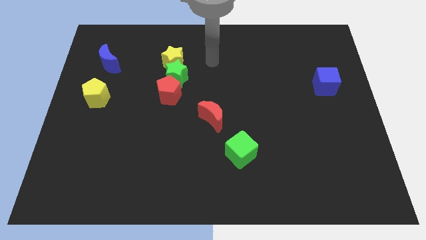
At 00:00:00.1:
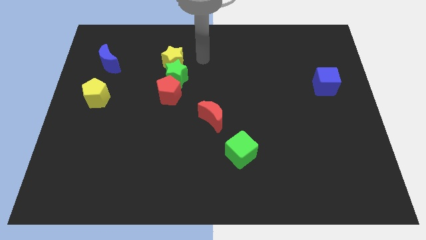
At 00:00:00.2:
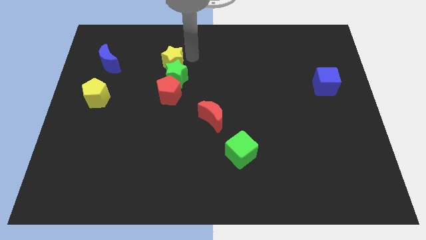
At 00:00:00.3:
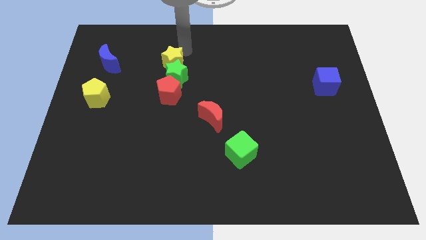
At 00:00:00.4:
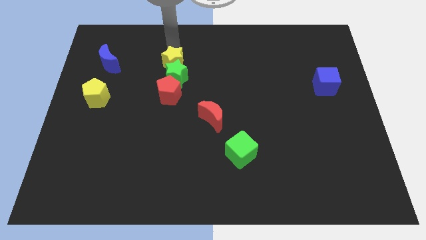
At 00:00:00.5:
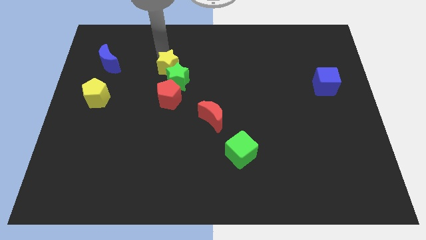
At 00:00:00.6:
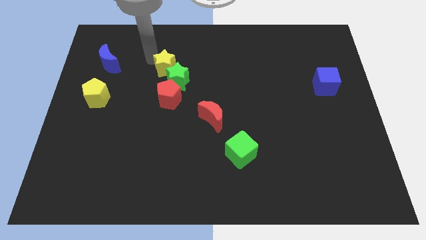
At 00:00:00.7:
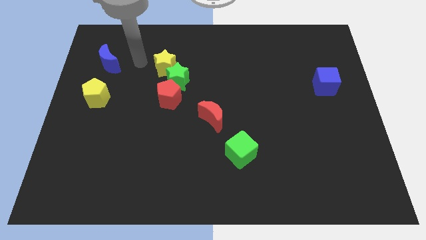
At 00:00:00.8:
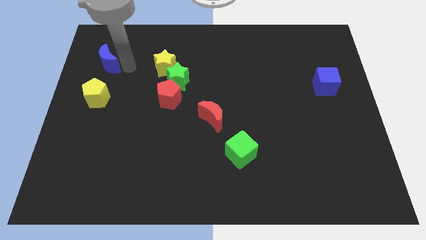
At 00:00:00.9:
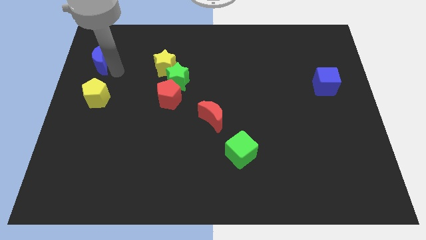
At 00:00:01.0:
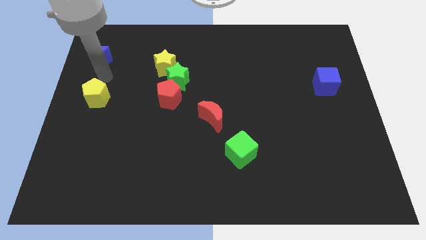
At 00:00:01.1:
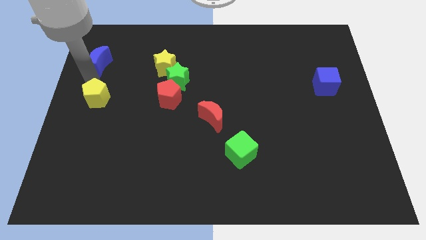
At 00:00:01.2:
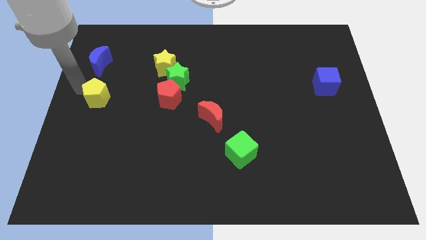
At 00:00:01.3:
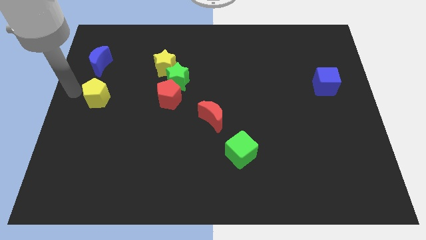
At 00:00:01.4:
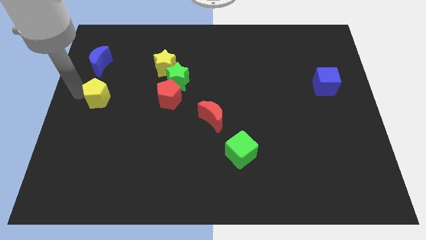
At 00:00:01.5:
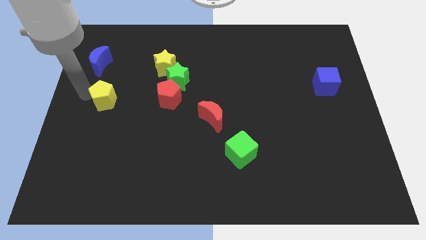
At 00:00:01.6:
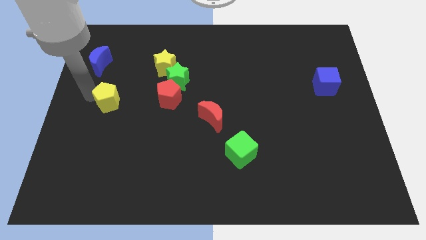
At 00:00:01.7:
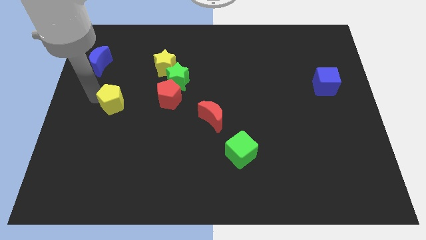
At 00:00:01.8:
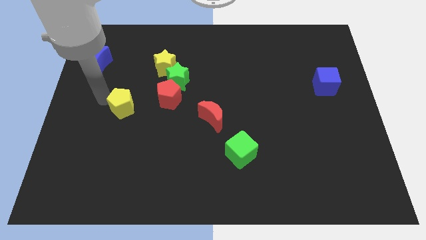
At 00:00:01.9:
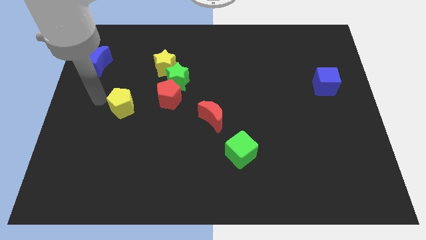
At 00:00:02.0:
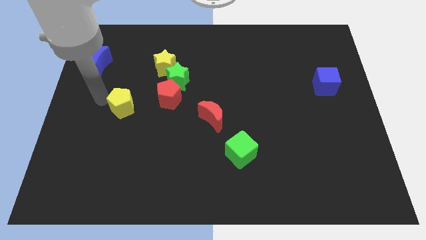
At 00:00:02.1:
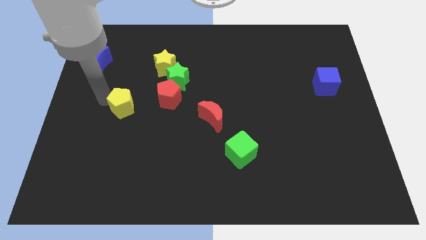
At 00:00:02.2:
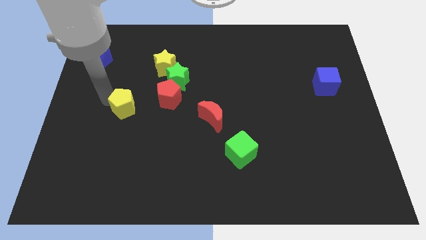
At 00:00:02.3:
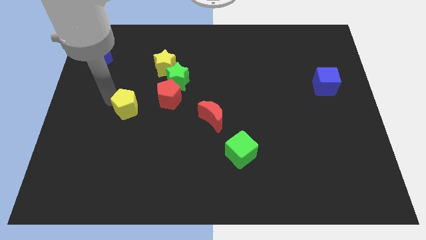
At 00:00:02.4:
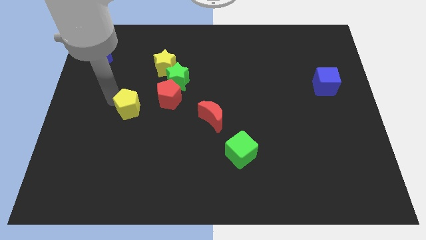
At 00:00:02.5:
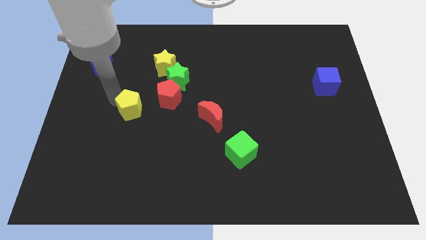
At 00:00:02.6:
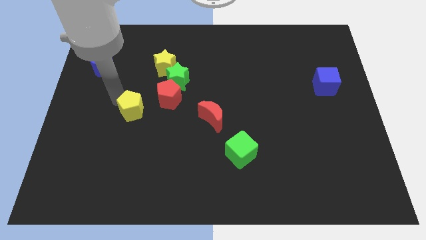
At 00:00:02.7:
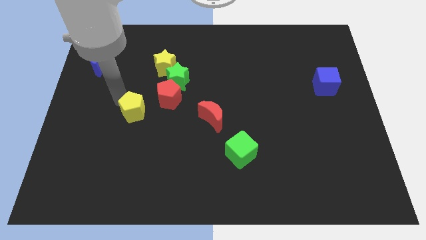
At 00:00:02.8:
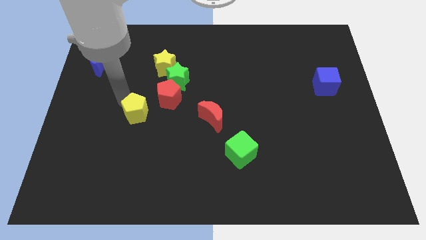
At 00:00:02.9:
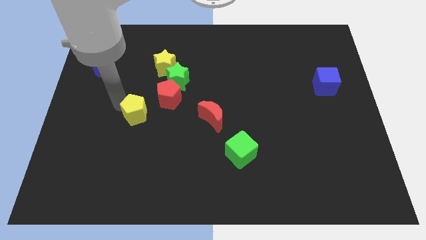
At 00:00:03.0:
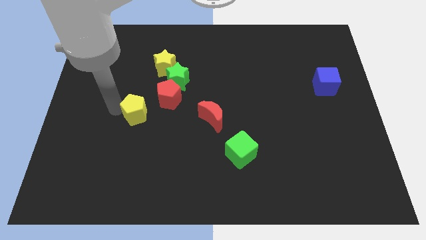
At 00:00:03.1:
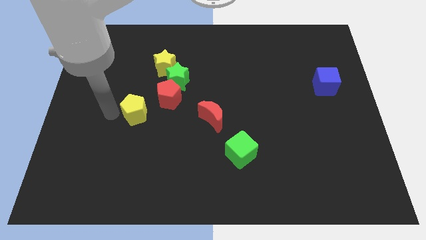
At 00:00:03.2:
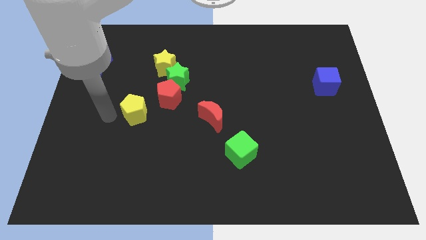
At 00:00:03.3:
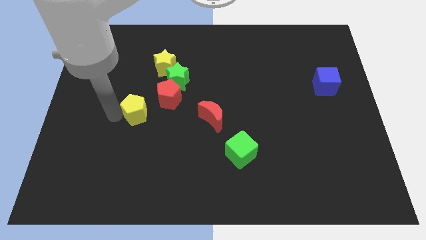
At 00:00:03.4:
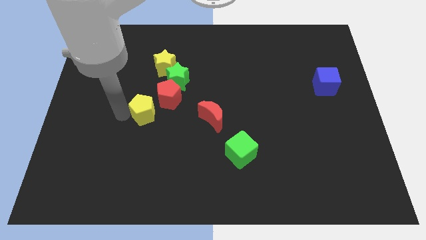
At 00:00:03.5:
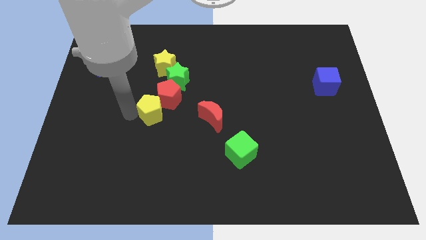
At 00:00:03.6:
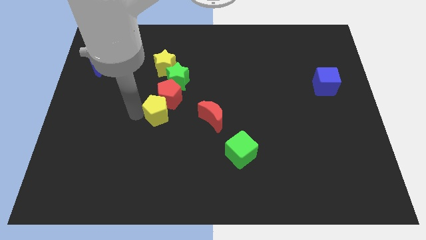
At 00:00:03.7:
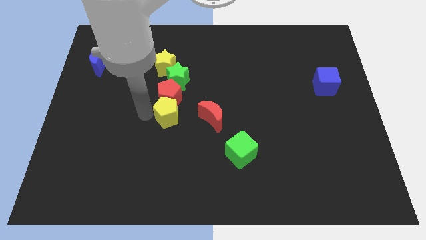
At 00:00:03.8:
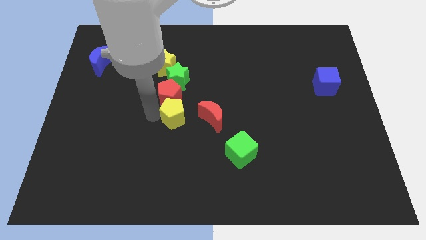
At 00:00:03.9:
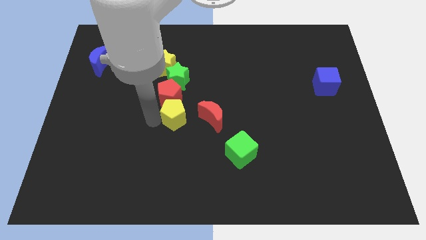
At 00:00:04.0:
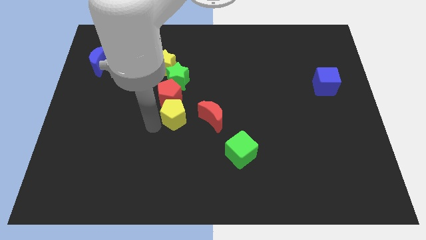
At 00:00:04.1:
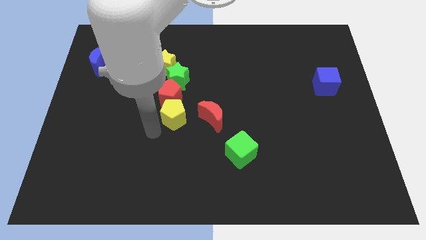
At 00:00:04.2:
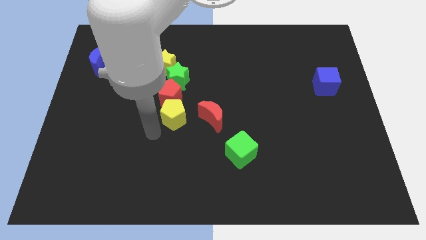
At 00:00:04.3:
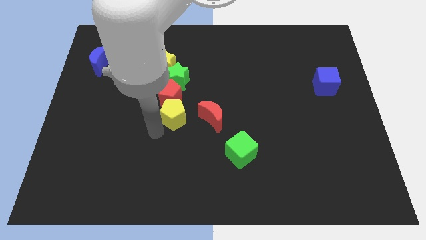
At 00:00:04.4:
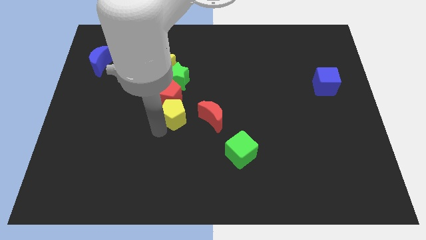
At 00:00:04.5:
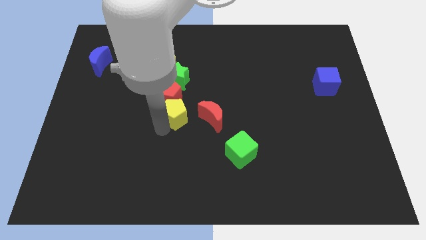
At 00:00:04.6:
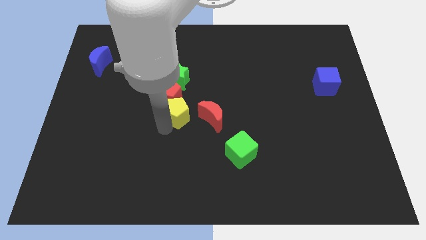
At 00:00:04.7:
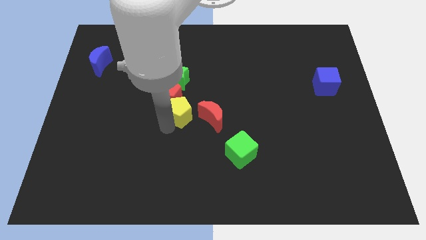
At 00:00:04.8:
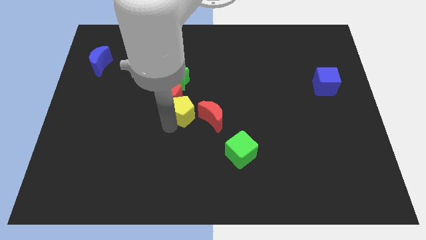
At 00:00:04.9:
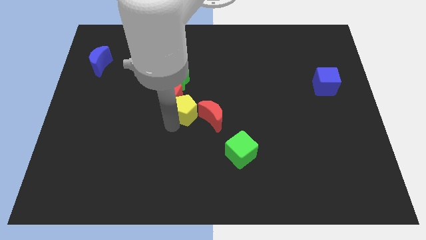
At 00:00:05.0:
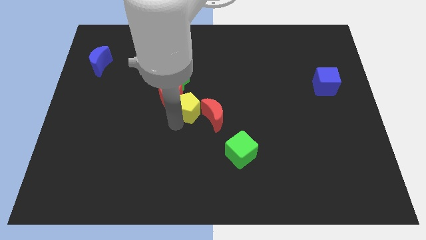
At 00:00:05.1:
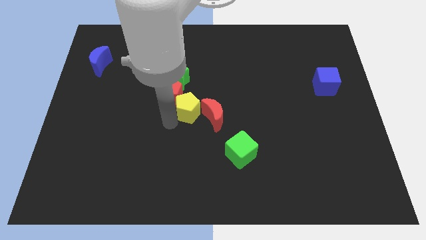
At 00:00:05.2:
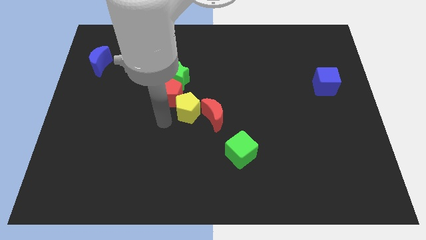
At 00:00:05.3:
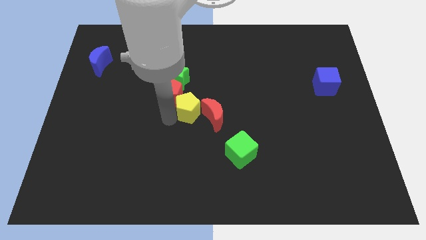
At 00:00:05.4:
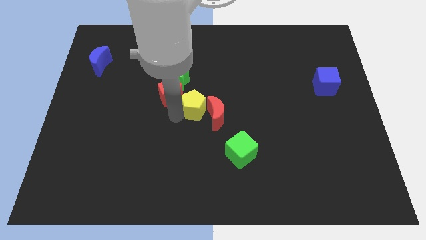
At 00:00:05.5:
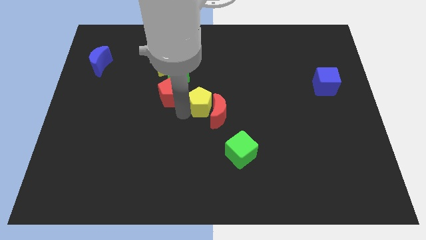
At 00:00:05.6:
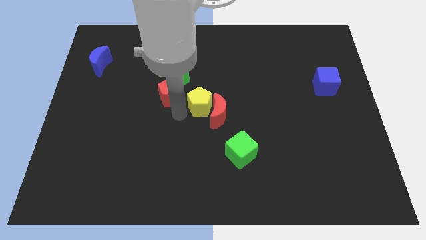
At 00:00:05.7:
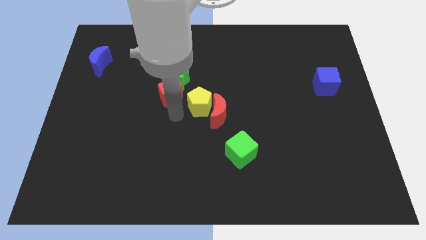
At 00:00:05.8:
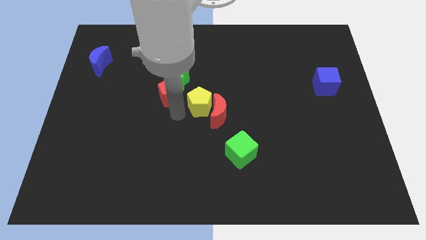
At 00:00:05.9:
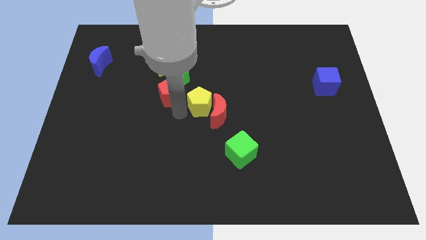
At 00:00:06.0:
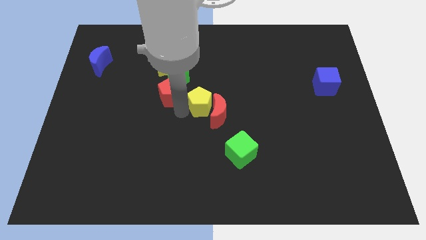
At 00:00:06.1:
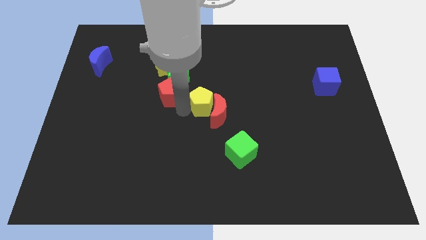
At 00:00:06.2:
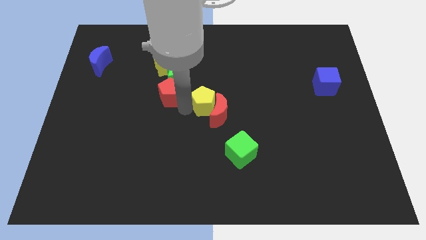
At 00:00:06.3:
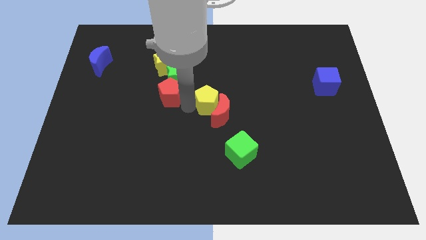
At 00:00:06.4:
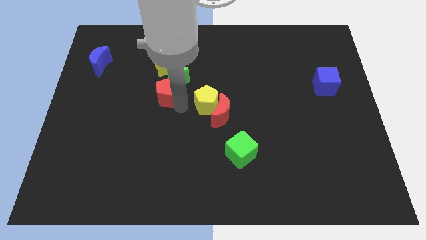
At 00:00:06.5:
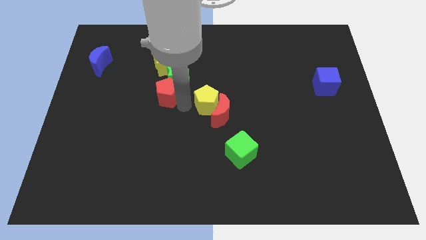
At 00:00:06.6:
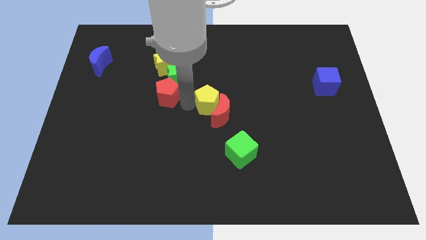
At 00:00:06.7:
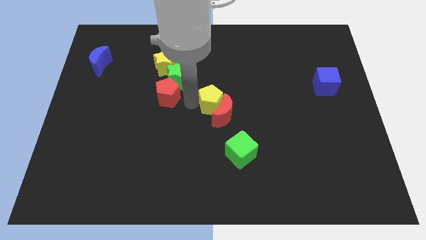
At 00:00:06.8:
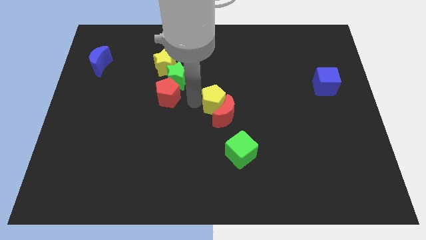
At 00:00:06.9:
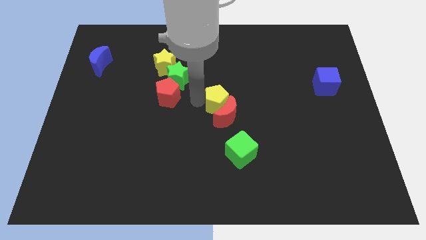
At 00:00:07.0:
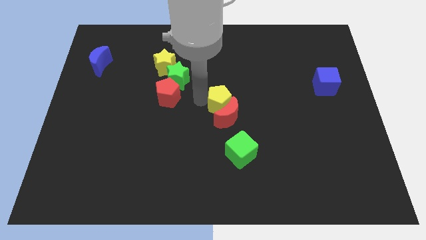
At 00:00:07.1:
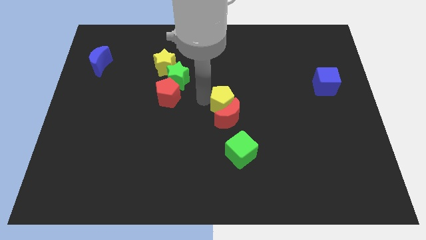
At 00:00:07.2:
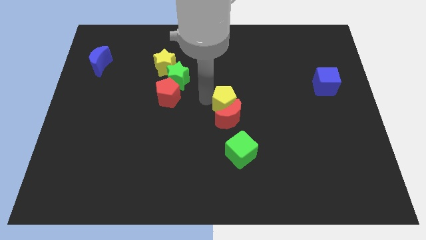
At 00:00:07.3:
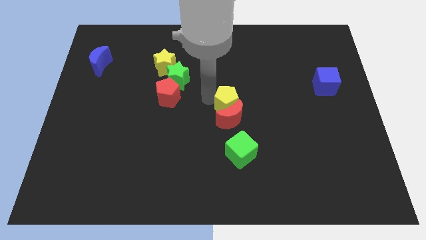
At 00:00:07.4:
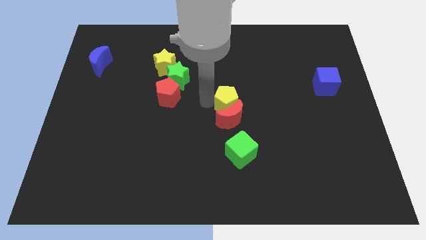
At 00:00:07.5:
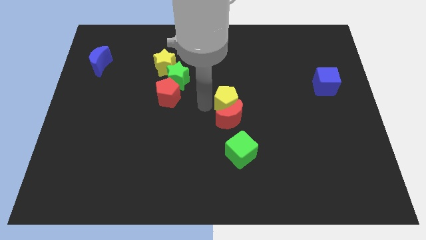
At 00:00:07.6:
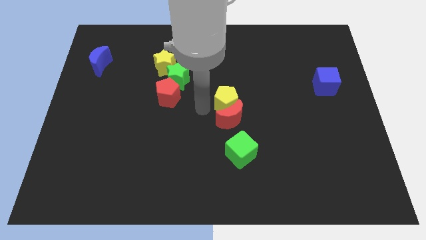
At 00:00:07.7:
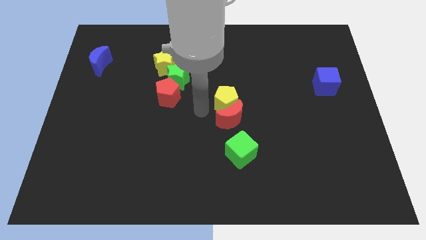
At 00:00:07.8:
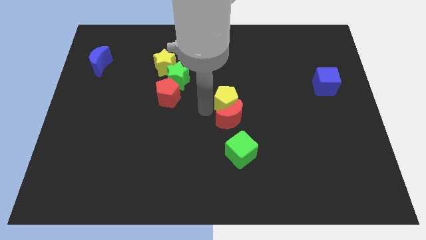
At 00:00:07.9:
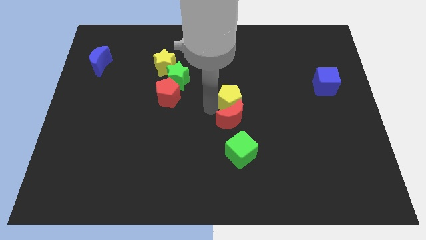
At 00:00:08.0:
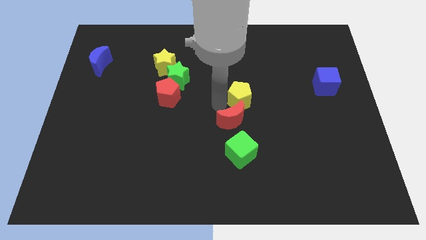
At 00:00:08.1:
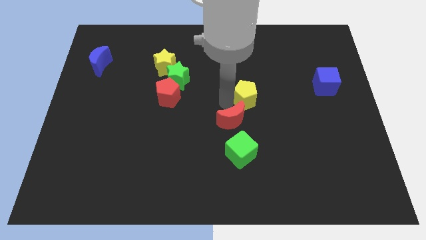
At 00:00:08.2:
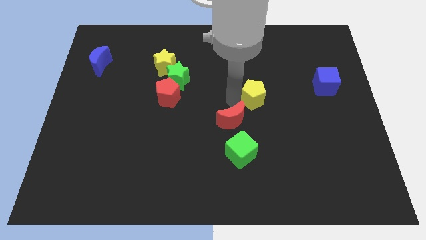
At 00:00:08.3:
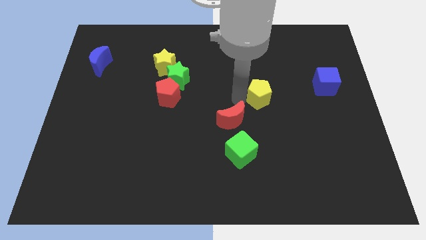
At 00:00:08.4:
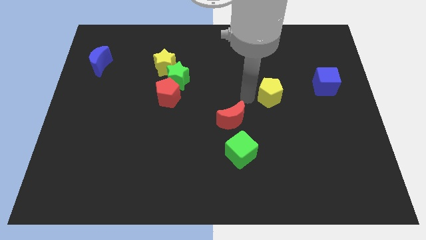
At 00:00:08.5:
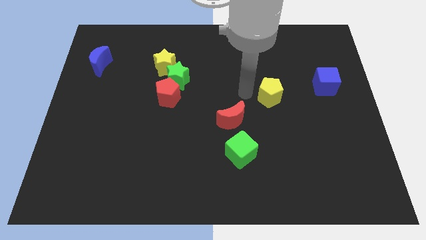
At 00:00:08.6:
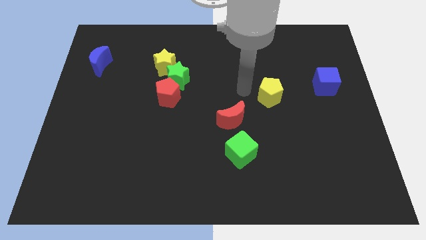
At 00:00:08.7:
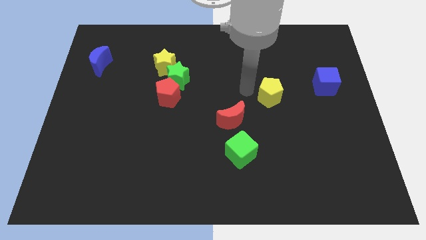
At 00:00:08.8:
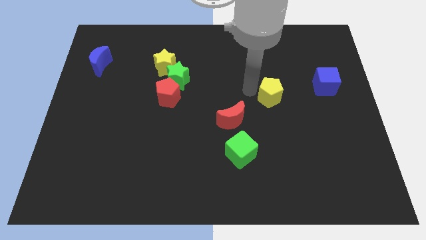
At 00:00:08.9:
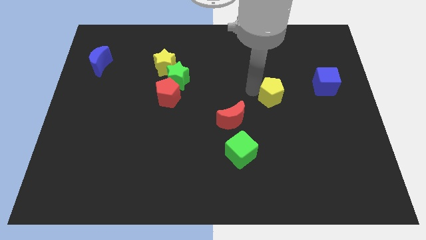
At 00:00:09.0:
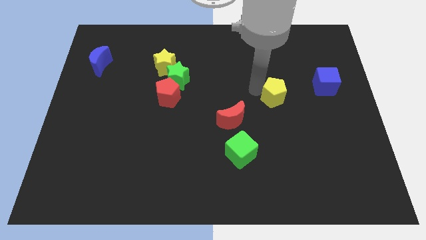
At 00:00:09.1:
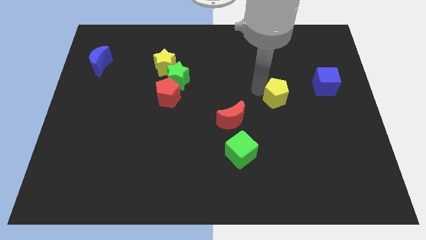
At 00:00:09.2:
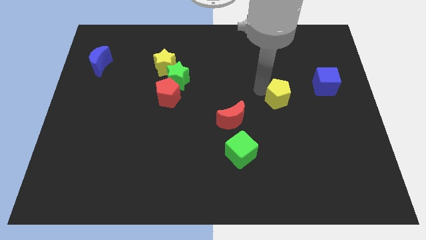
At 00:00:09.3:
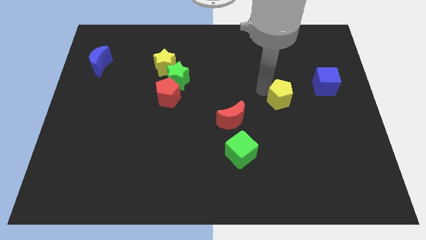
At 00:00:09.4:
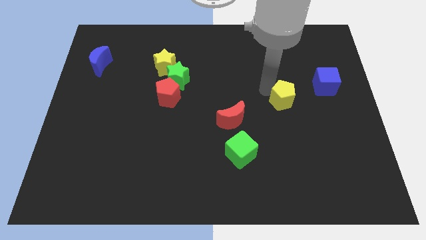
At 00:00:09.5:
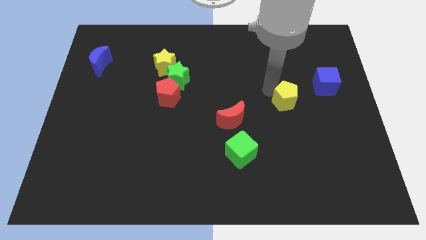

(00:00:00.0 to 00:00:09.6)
move the yellow pentagon to the bottom left of the blue cube
